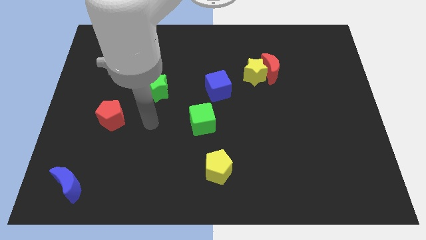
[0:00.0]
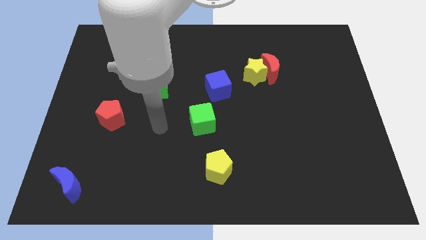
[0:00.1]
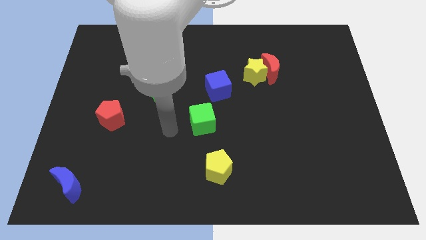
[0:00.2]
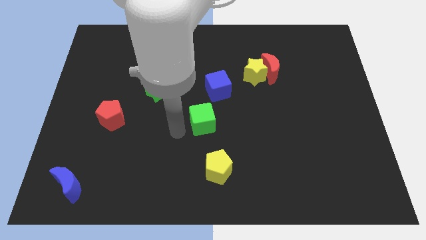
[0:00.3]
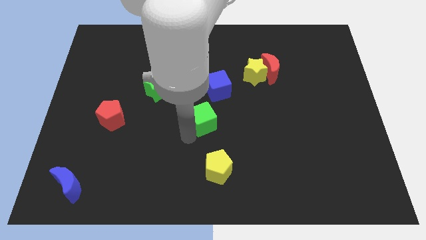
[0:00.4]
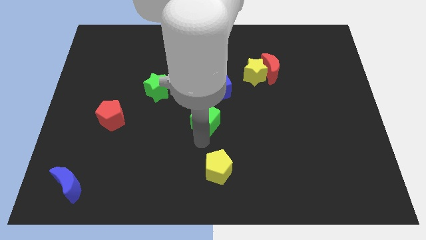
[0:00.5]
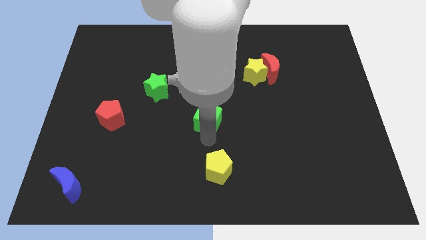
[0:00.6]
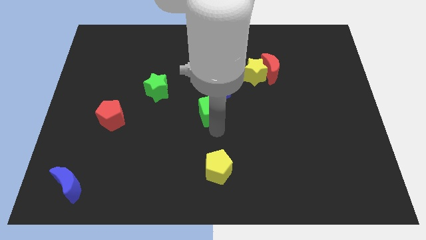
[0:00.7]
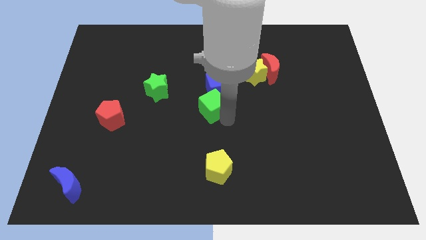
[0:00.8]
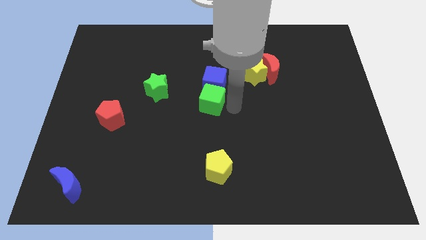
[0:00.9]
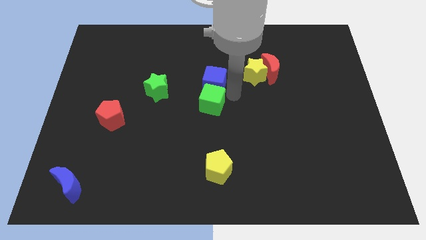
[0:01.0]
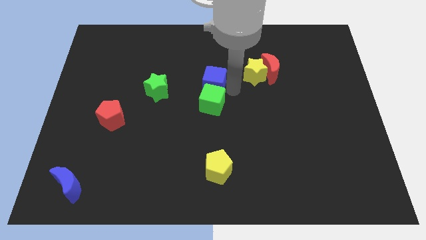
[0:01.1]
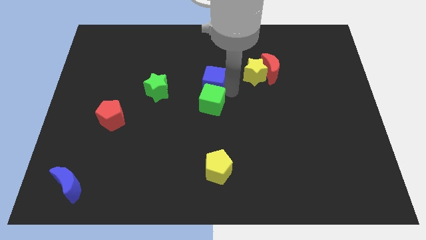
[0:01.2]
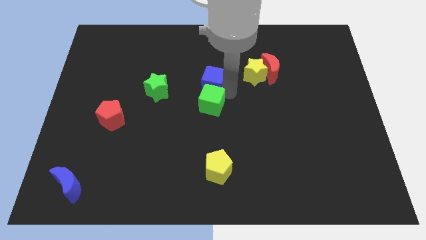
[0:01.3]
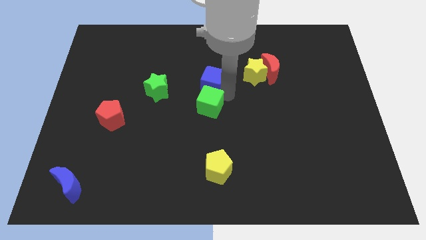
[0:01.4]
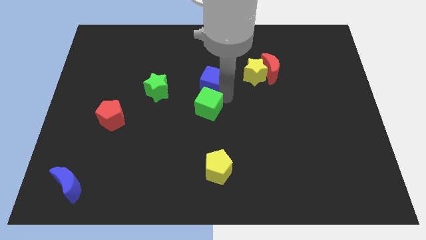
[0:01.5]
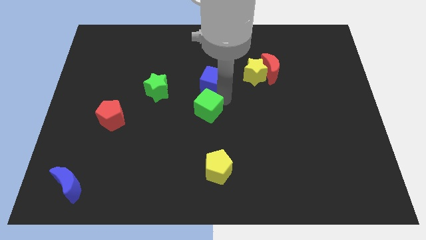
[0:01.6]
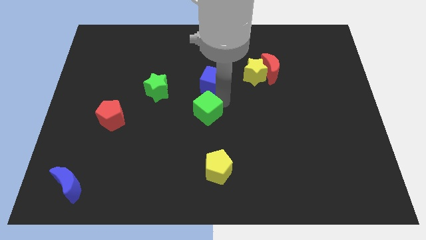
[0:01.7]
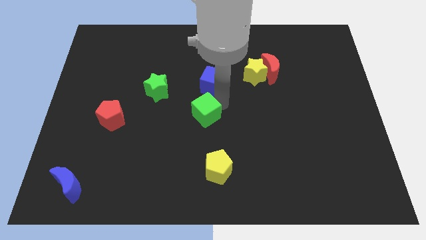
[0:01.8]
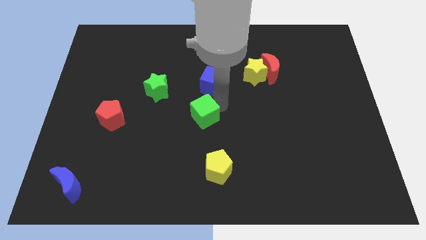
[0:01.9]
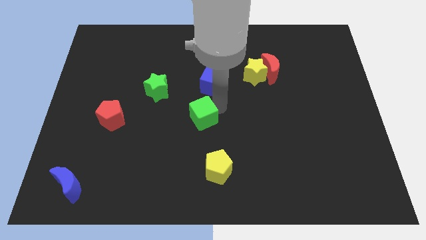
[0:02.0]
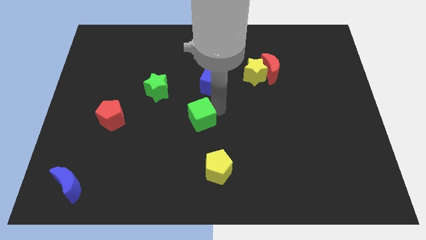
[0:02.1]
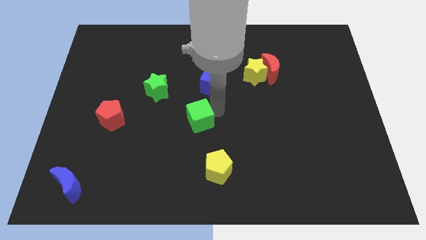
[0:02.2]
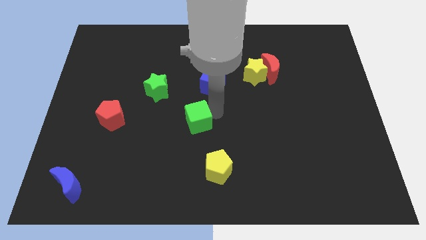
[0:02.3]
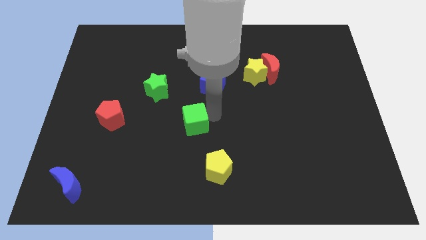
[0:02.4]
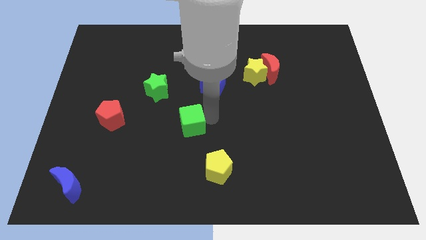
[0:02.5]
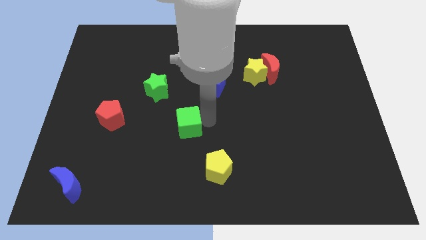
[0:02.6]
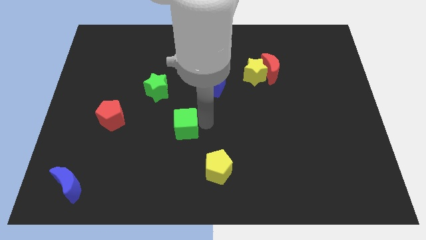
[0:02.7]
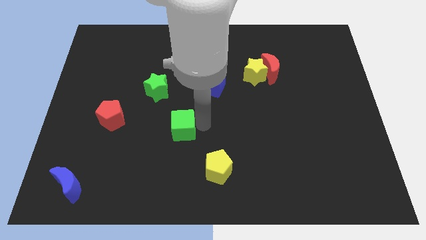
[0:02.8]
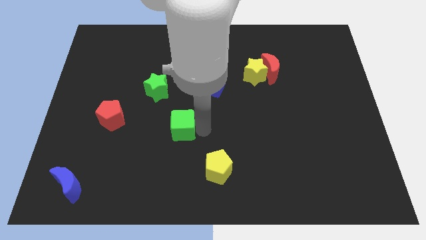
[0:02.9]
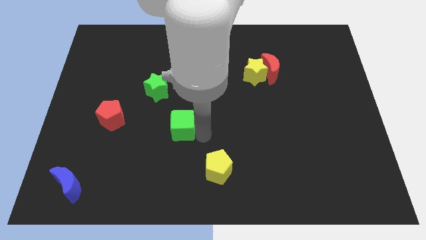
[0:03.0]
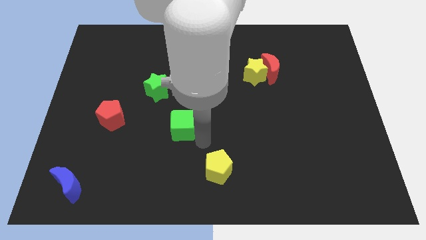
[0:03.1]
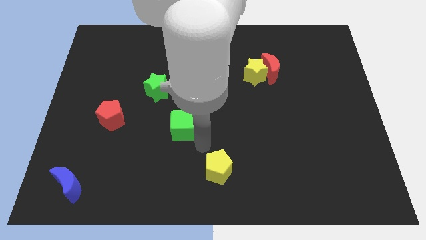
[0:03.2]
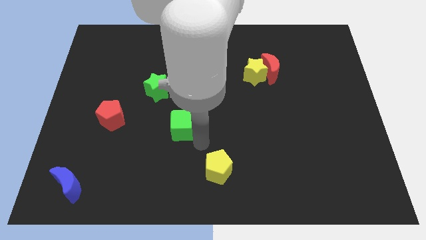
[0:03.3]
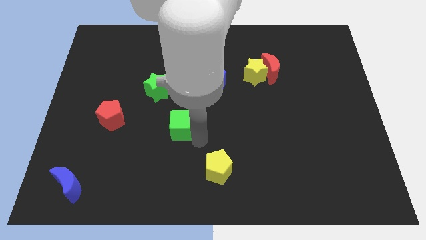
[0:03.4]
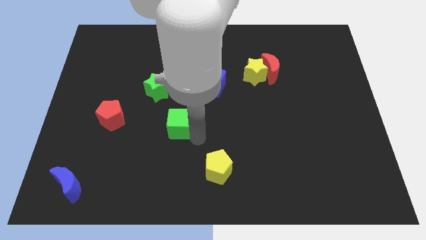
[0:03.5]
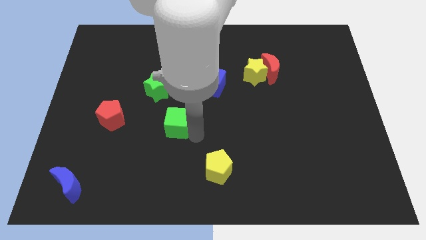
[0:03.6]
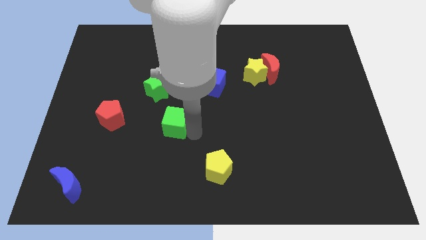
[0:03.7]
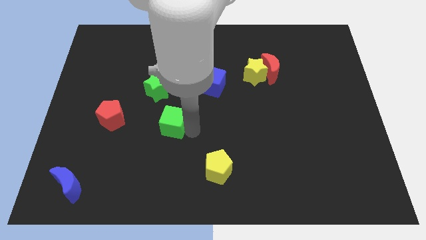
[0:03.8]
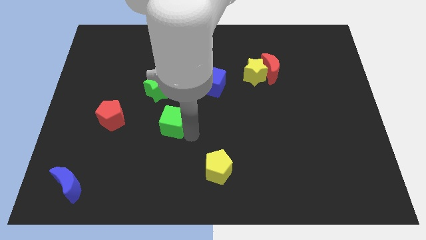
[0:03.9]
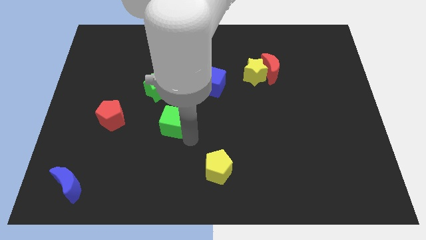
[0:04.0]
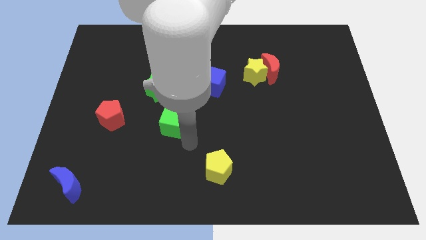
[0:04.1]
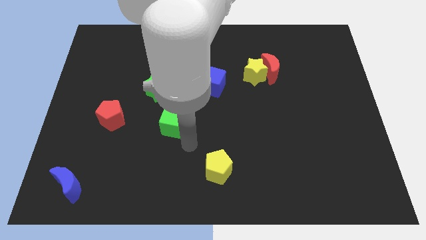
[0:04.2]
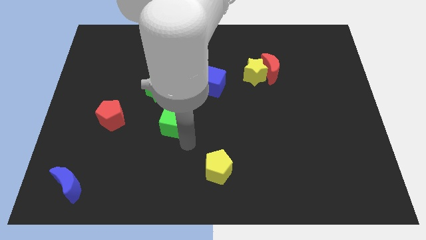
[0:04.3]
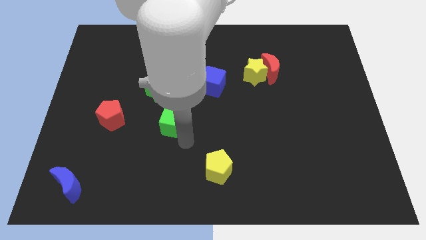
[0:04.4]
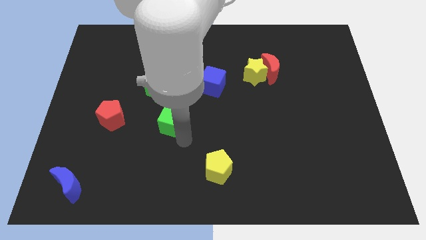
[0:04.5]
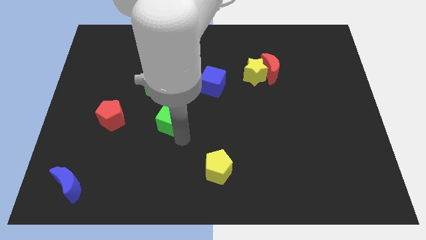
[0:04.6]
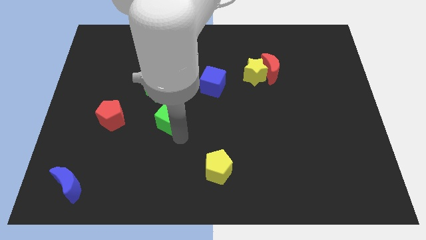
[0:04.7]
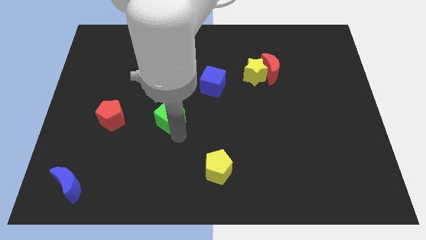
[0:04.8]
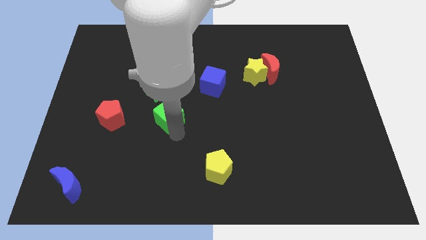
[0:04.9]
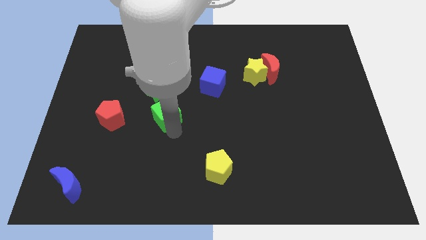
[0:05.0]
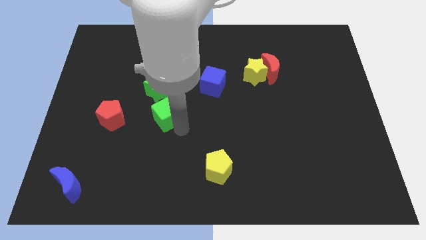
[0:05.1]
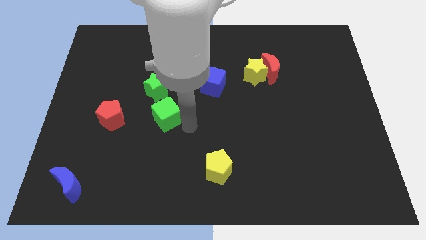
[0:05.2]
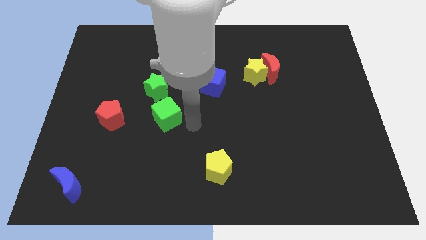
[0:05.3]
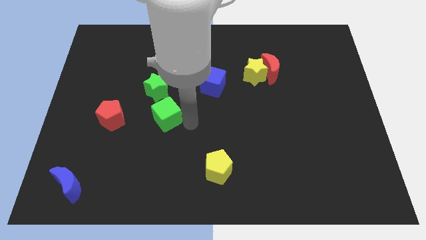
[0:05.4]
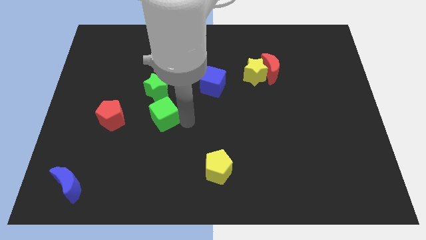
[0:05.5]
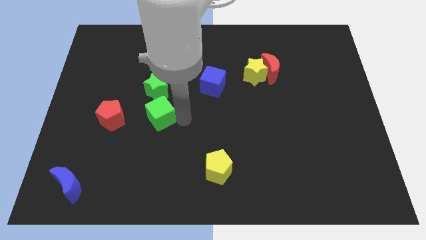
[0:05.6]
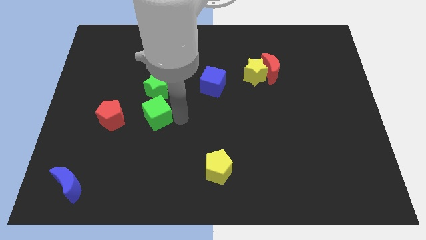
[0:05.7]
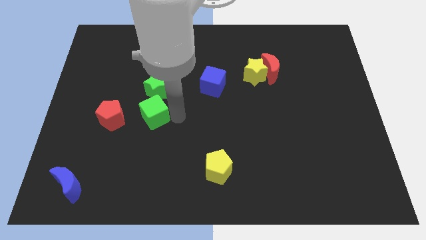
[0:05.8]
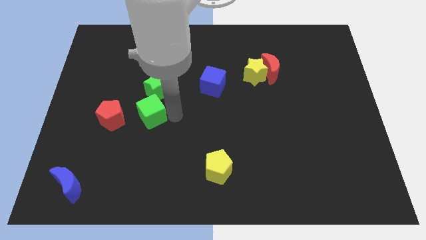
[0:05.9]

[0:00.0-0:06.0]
push the green cube to the bottom left side of the green star

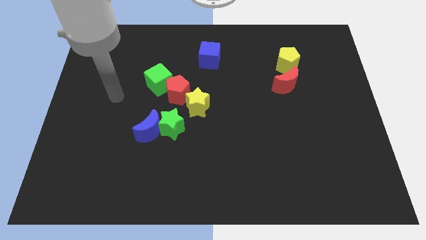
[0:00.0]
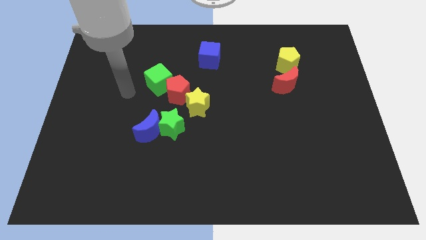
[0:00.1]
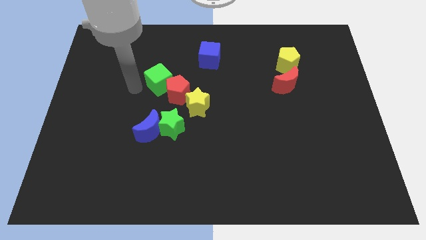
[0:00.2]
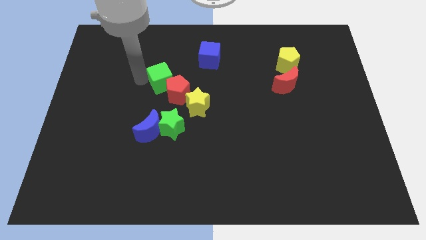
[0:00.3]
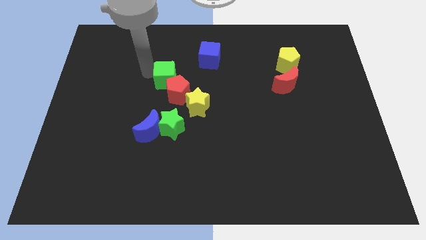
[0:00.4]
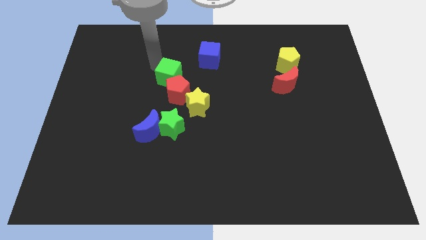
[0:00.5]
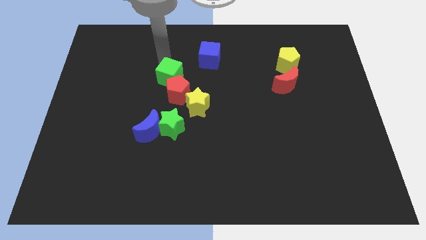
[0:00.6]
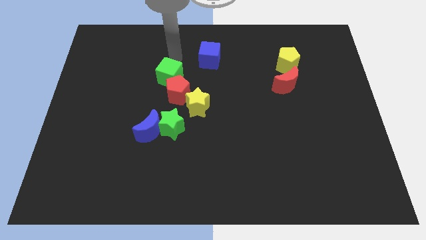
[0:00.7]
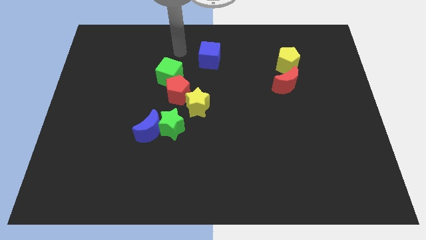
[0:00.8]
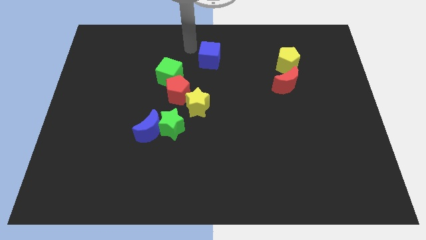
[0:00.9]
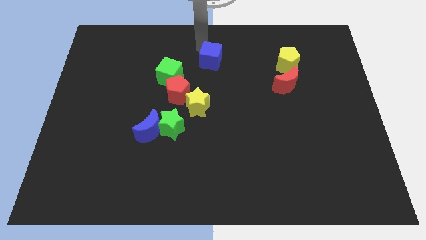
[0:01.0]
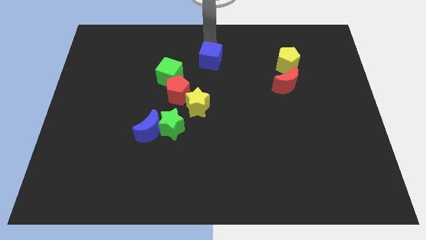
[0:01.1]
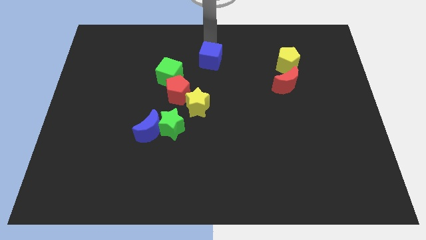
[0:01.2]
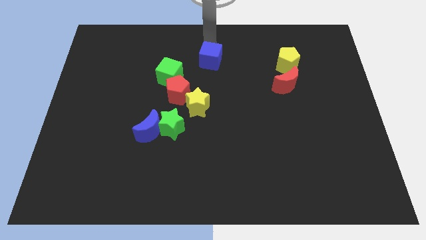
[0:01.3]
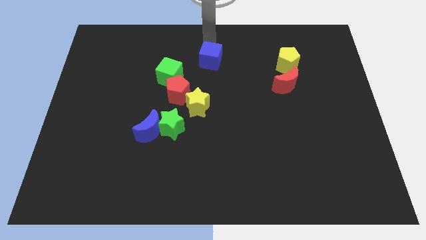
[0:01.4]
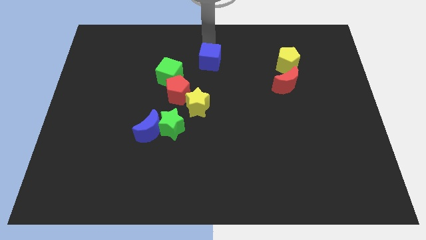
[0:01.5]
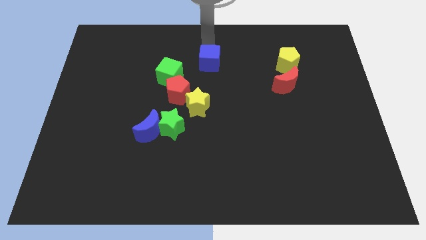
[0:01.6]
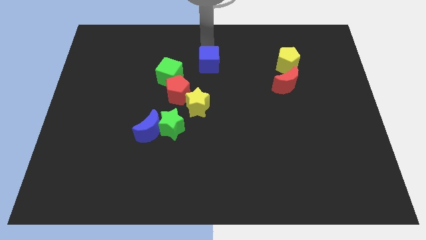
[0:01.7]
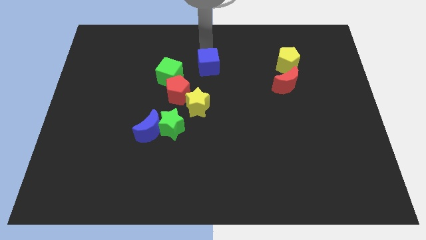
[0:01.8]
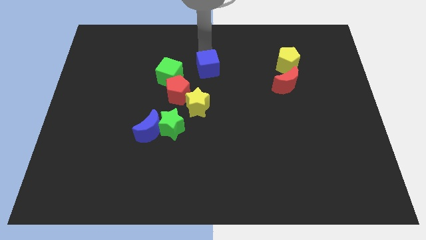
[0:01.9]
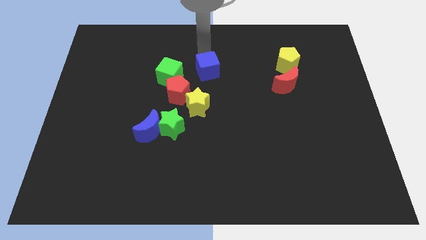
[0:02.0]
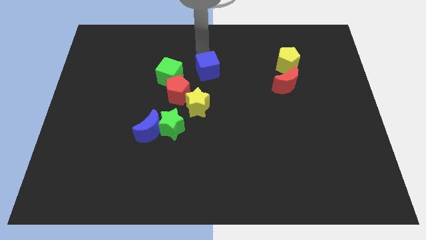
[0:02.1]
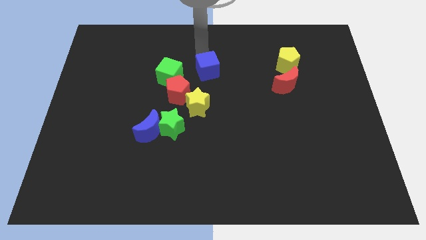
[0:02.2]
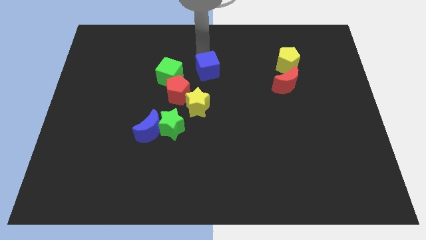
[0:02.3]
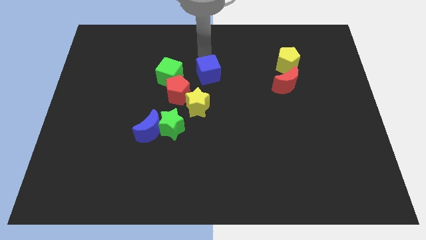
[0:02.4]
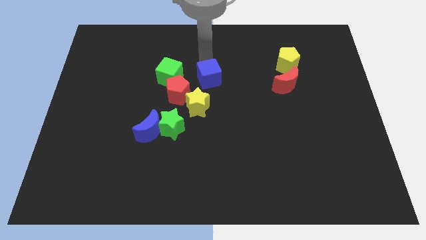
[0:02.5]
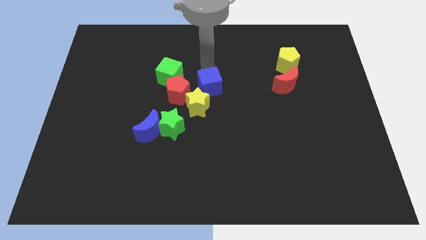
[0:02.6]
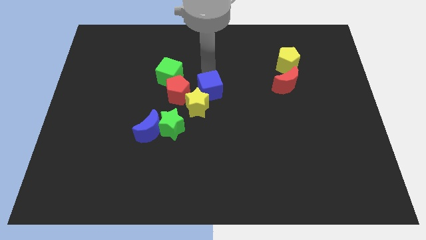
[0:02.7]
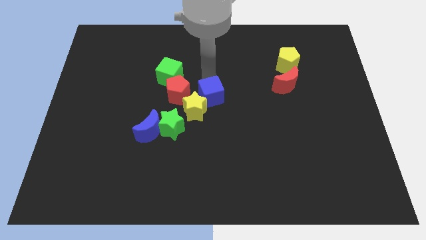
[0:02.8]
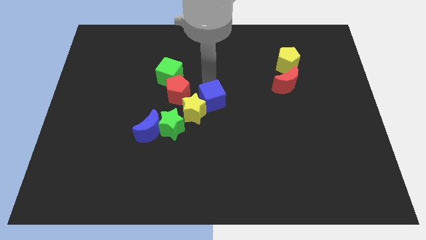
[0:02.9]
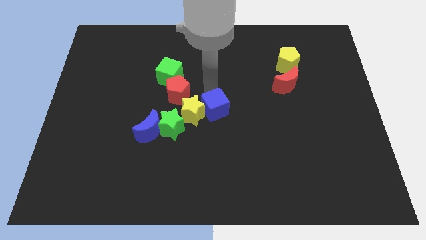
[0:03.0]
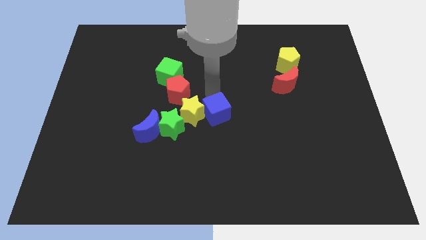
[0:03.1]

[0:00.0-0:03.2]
move the blue cube to the right of the green star
